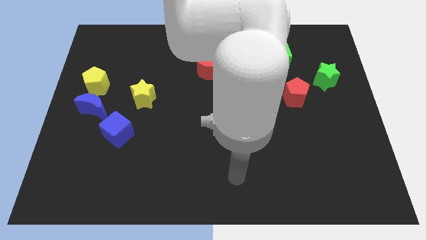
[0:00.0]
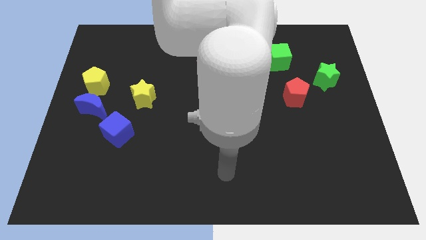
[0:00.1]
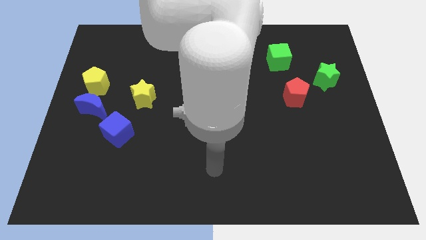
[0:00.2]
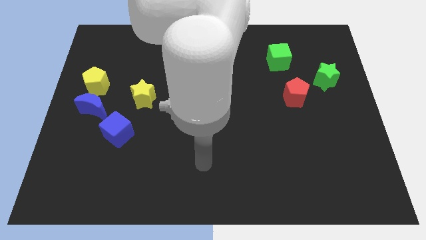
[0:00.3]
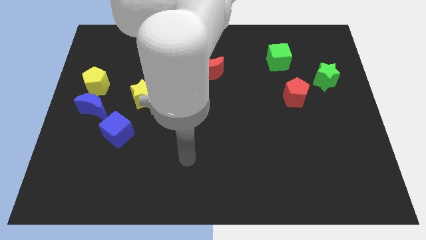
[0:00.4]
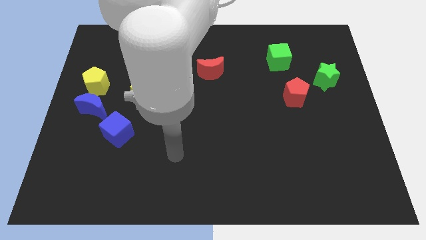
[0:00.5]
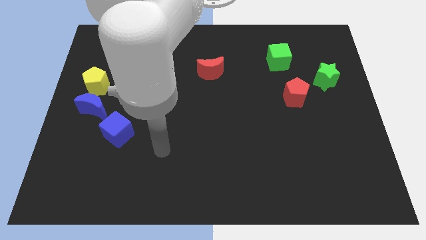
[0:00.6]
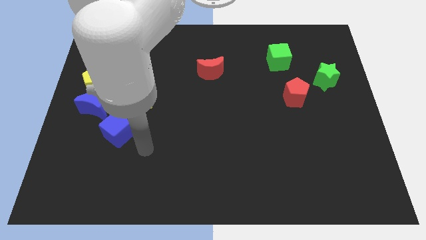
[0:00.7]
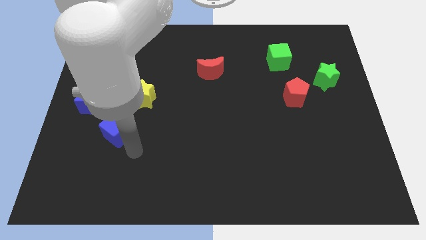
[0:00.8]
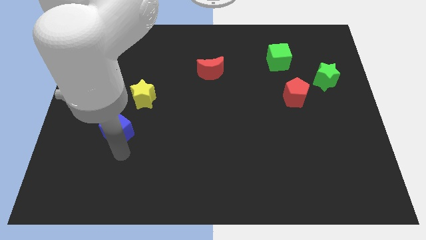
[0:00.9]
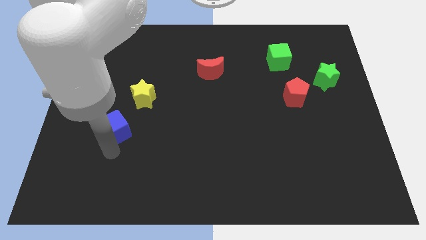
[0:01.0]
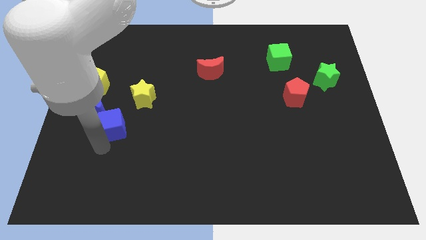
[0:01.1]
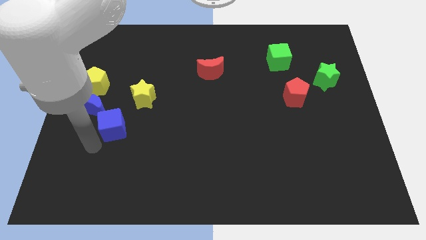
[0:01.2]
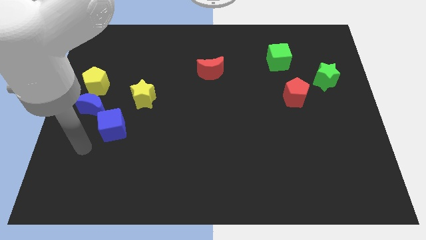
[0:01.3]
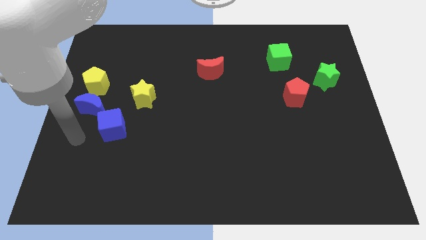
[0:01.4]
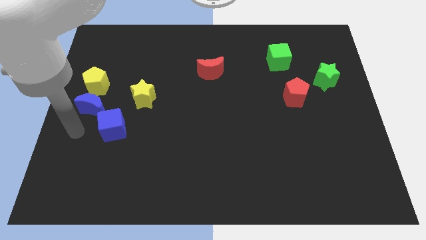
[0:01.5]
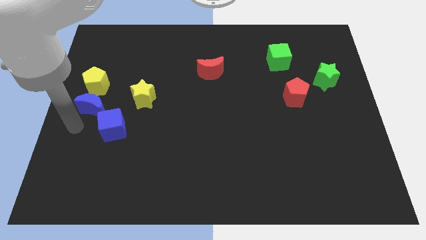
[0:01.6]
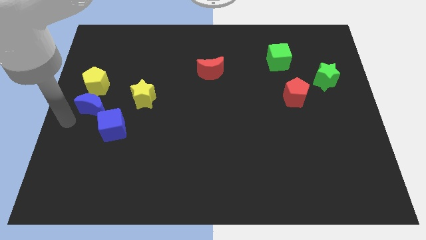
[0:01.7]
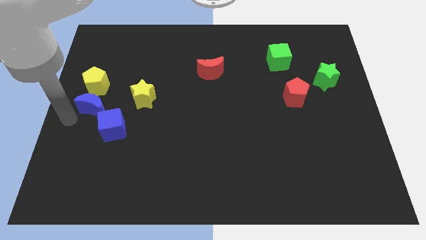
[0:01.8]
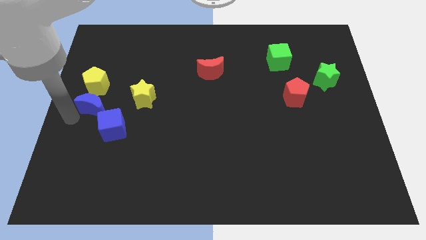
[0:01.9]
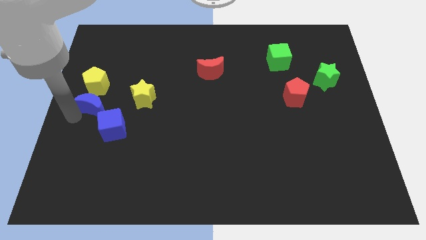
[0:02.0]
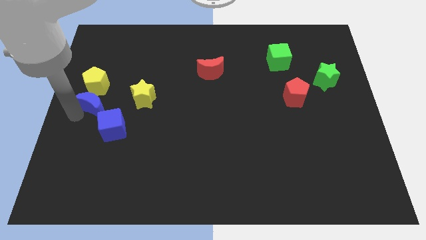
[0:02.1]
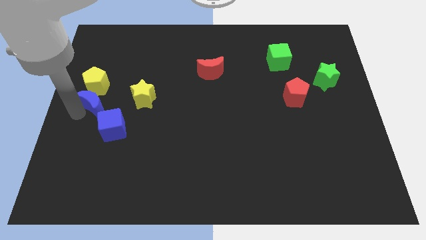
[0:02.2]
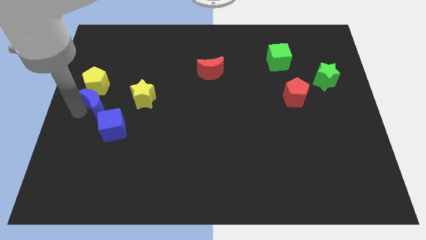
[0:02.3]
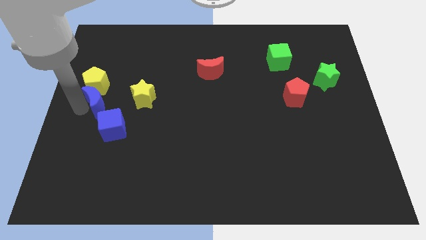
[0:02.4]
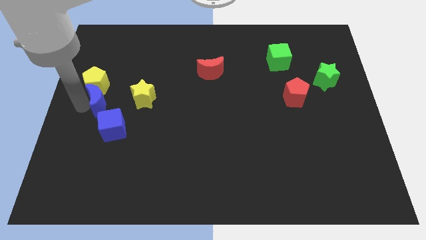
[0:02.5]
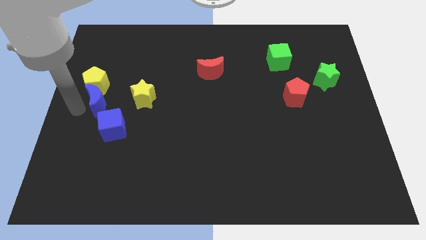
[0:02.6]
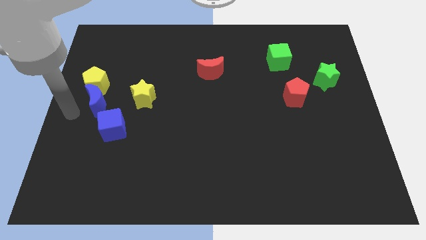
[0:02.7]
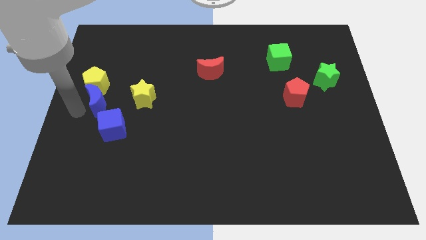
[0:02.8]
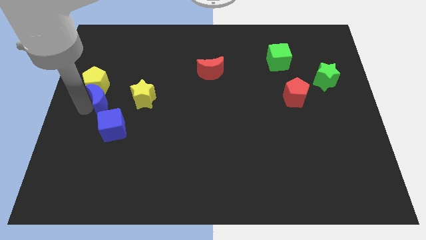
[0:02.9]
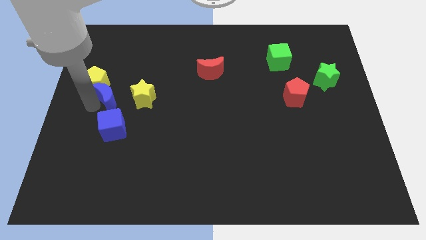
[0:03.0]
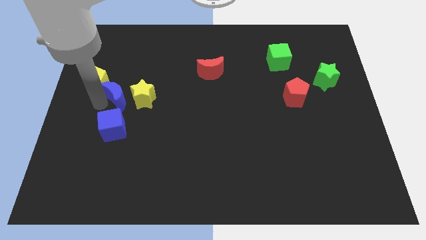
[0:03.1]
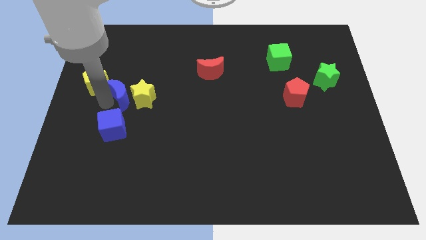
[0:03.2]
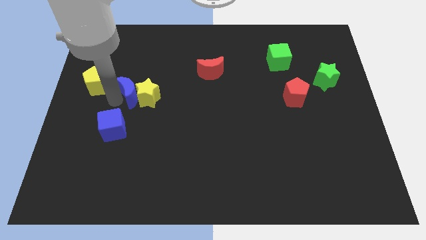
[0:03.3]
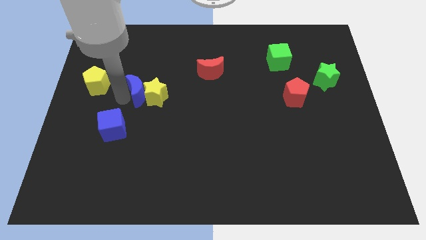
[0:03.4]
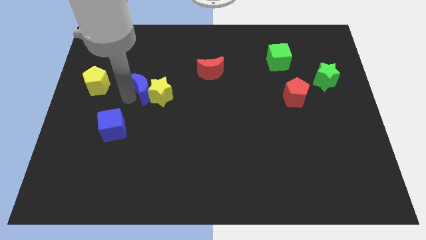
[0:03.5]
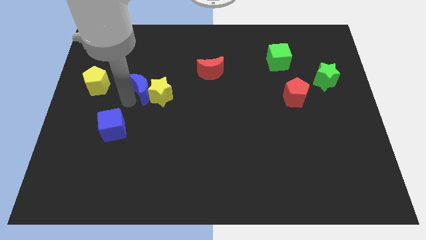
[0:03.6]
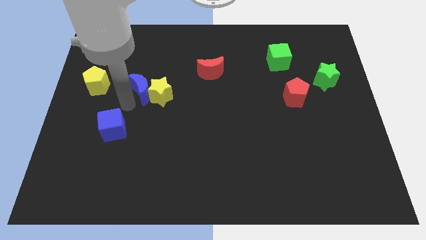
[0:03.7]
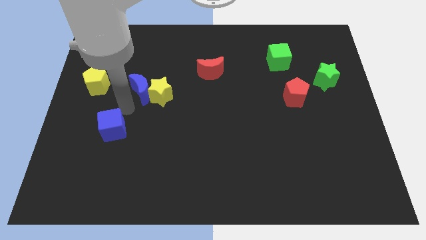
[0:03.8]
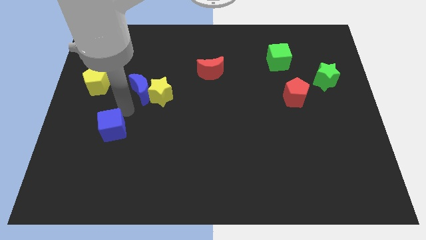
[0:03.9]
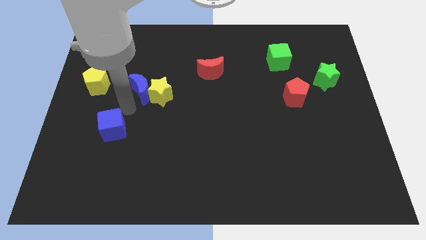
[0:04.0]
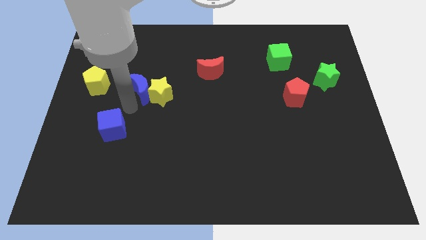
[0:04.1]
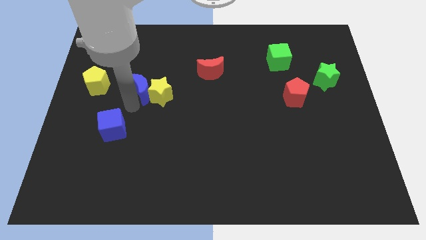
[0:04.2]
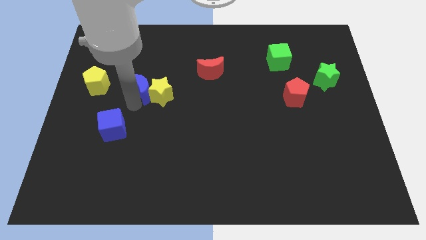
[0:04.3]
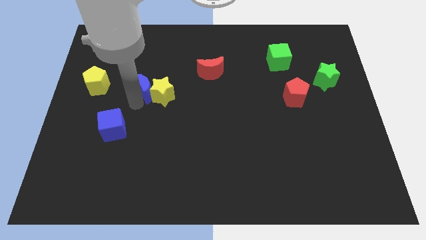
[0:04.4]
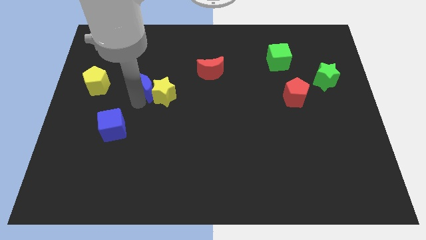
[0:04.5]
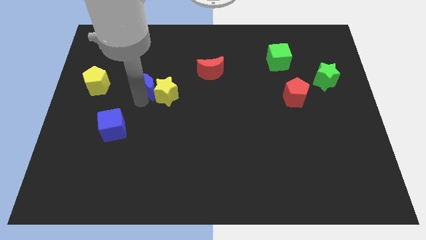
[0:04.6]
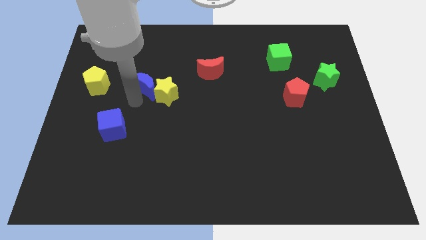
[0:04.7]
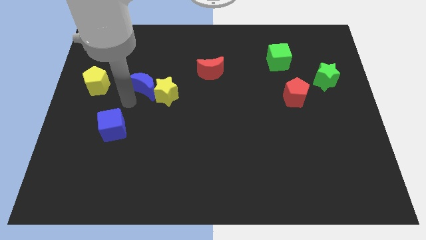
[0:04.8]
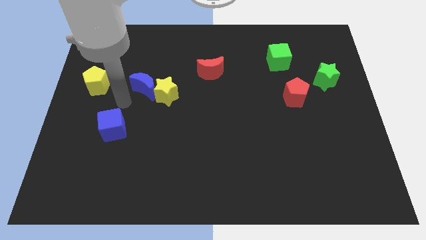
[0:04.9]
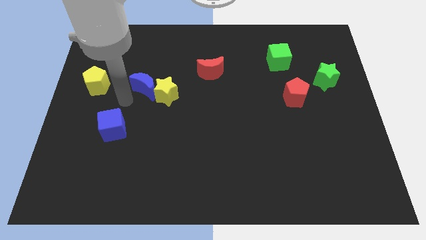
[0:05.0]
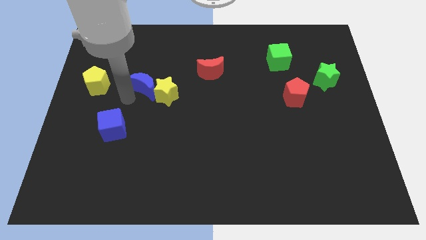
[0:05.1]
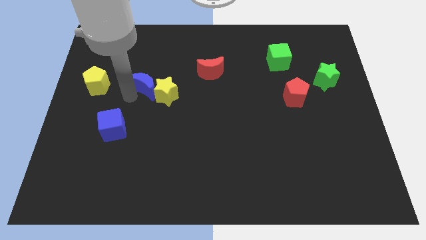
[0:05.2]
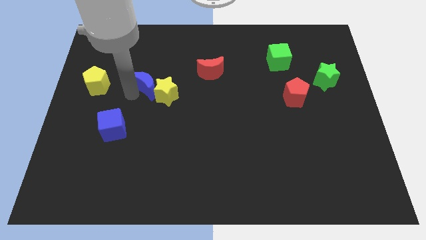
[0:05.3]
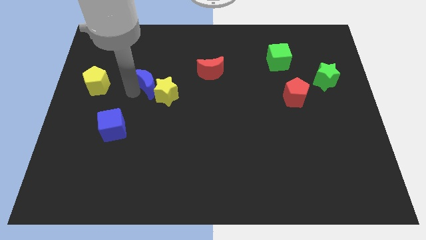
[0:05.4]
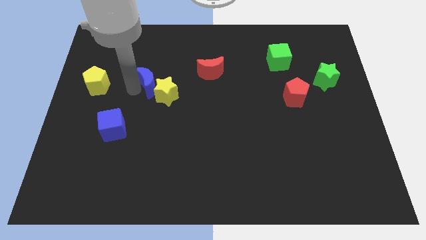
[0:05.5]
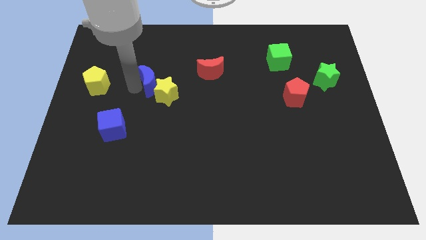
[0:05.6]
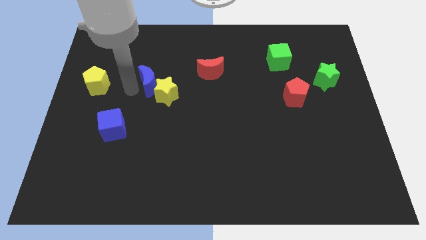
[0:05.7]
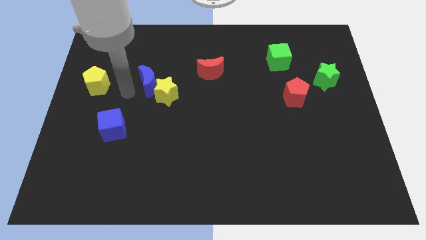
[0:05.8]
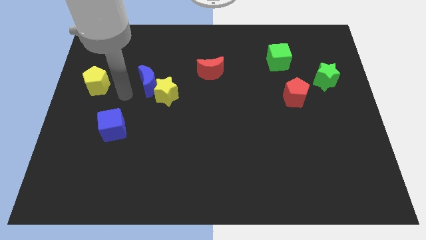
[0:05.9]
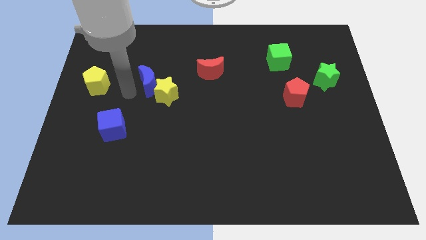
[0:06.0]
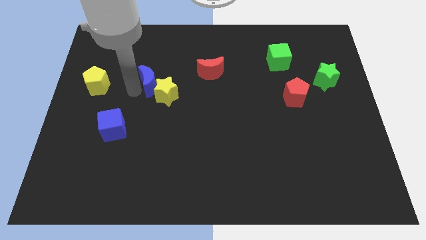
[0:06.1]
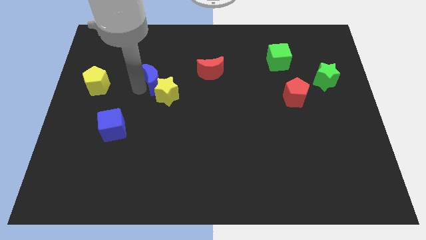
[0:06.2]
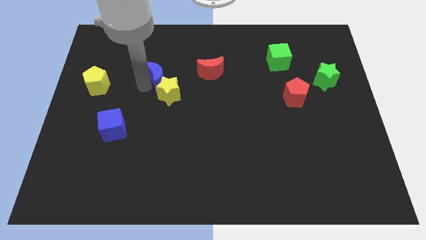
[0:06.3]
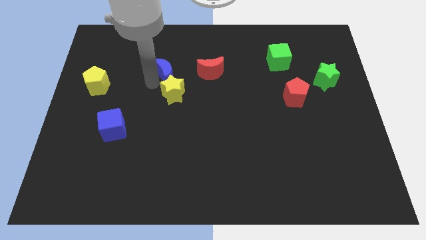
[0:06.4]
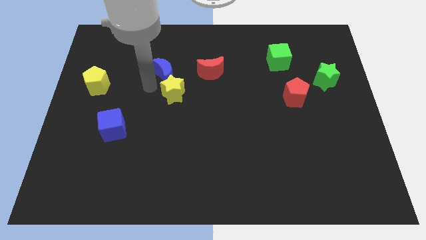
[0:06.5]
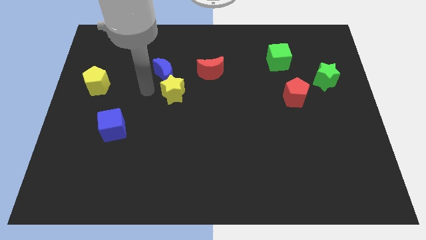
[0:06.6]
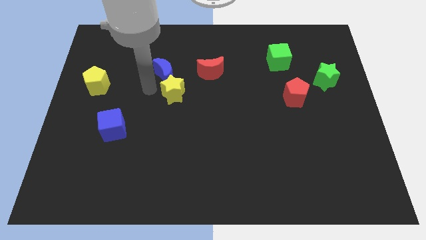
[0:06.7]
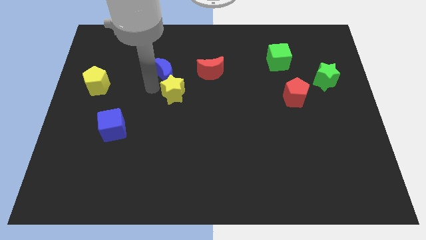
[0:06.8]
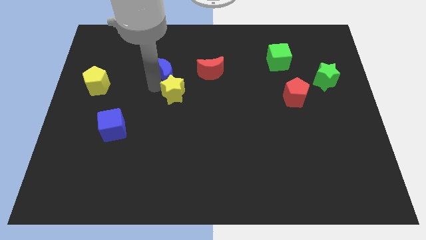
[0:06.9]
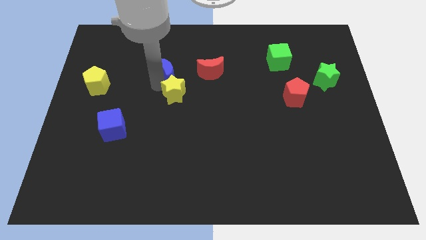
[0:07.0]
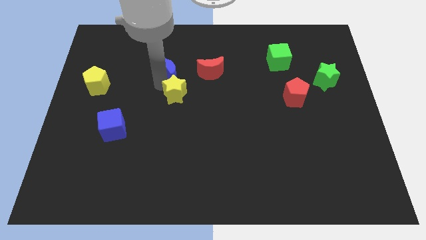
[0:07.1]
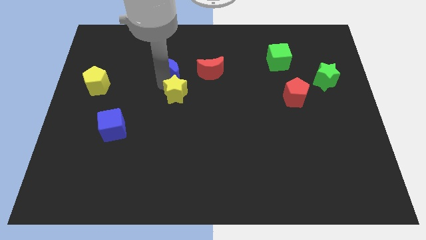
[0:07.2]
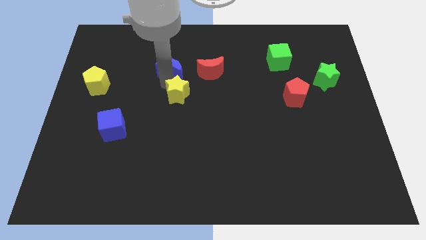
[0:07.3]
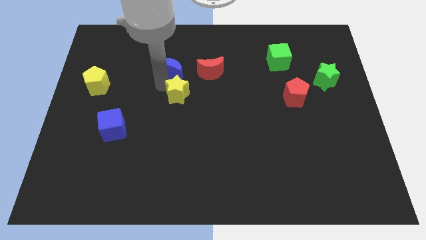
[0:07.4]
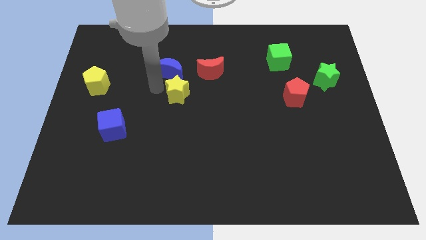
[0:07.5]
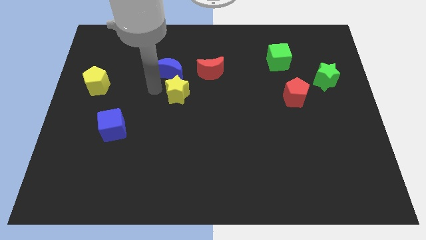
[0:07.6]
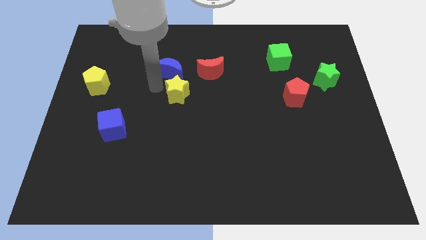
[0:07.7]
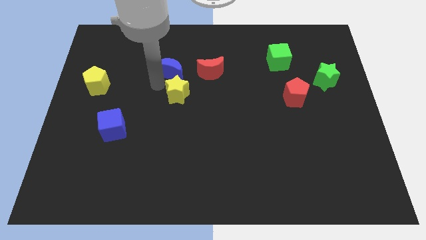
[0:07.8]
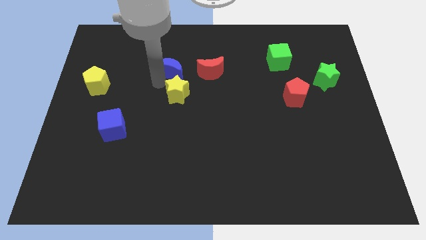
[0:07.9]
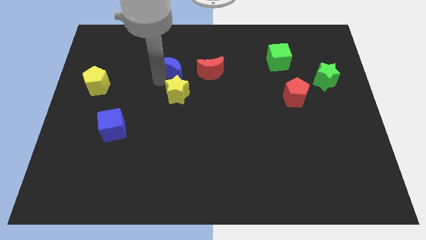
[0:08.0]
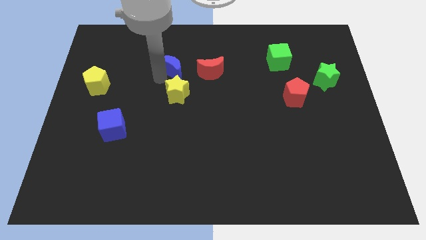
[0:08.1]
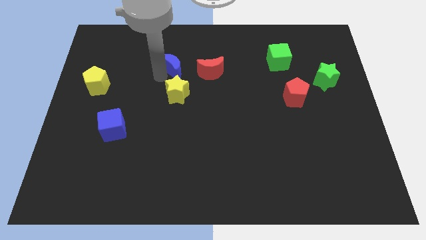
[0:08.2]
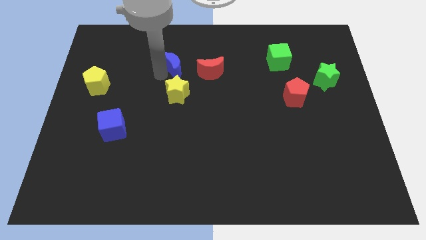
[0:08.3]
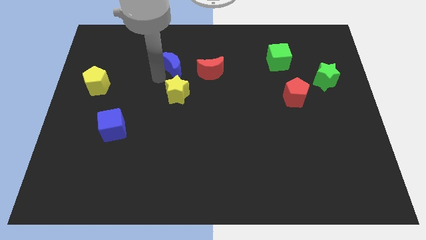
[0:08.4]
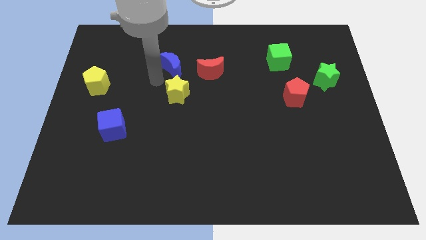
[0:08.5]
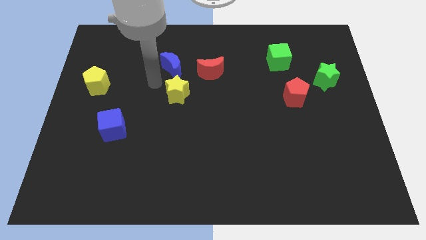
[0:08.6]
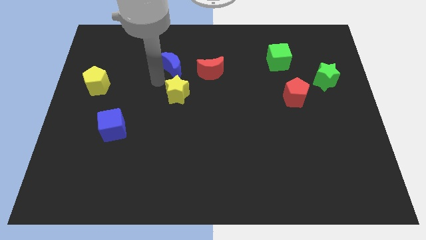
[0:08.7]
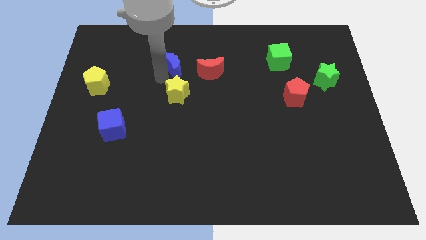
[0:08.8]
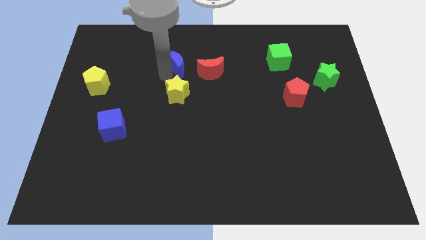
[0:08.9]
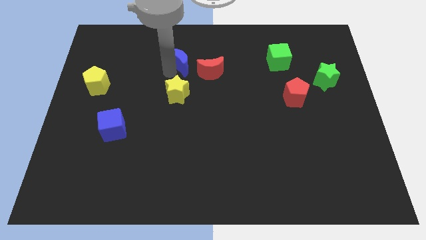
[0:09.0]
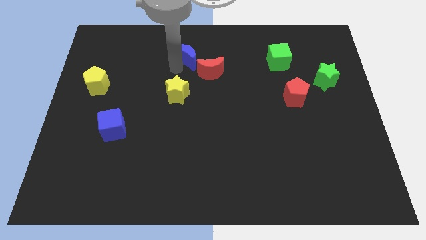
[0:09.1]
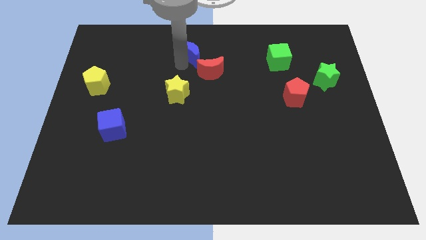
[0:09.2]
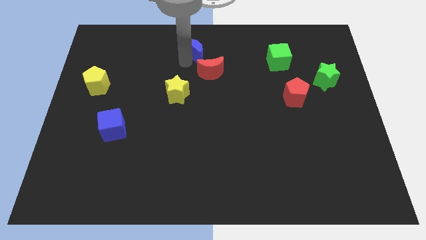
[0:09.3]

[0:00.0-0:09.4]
slide the blue moon to the towards your base
